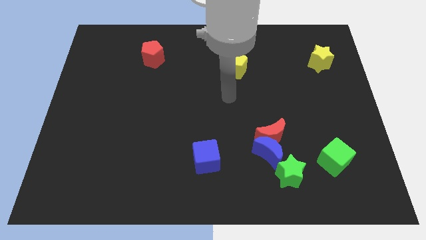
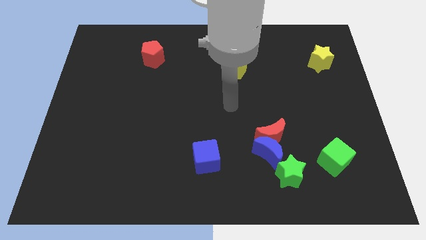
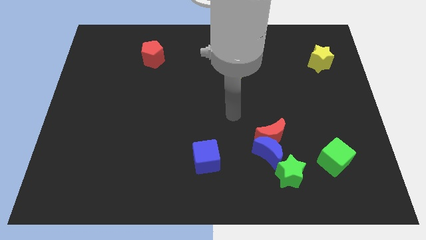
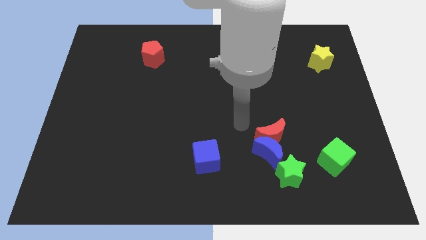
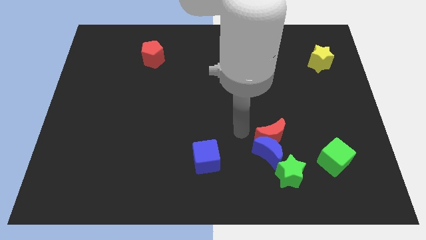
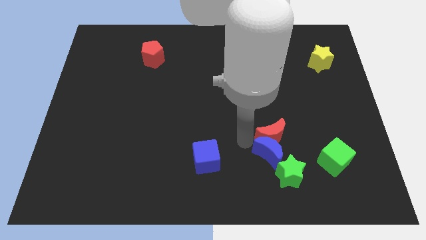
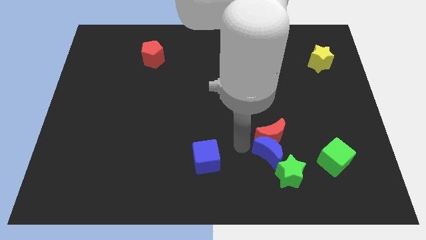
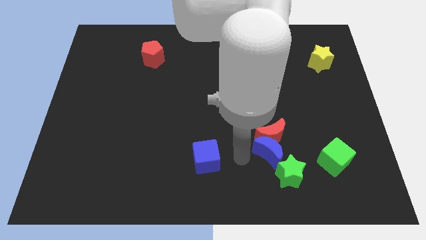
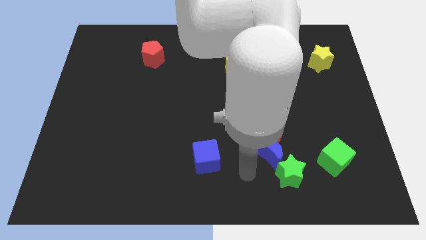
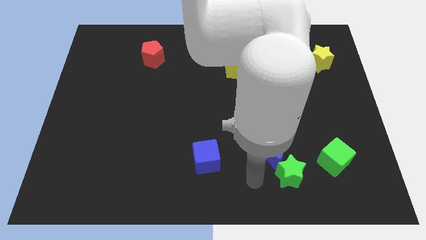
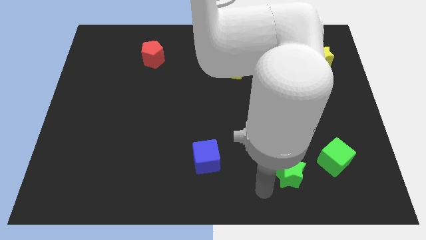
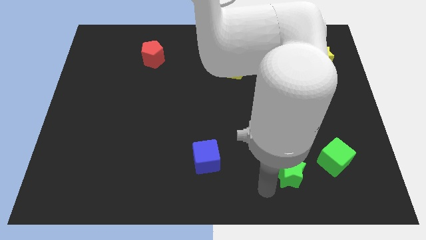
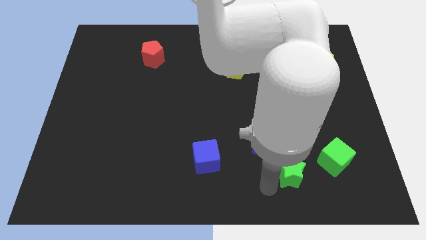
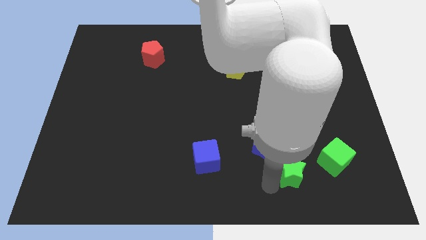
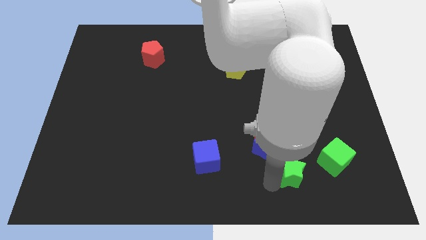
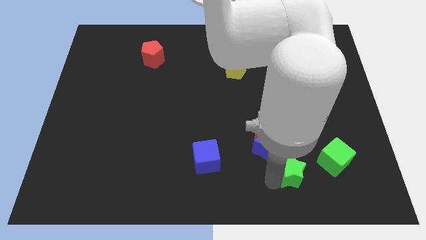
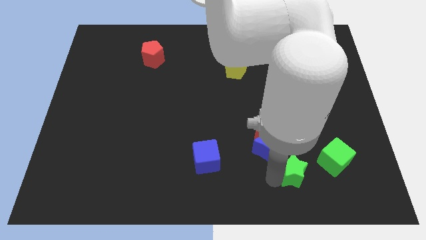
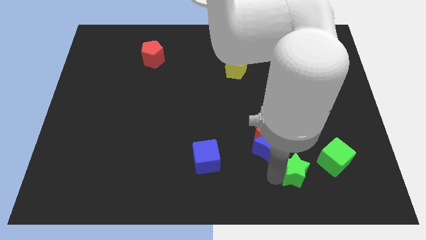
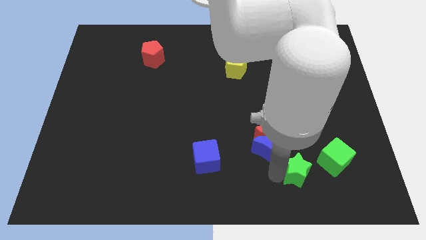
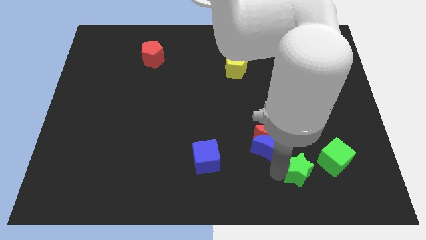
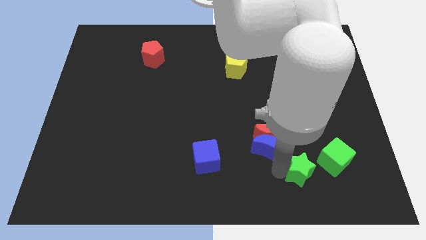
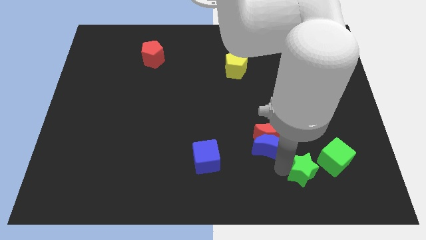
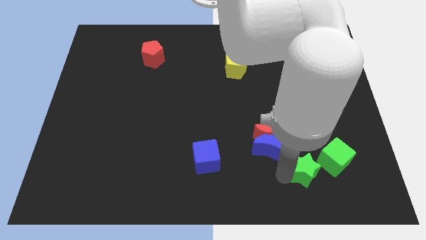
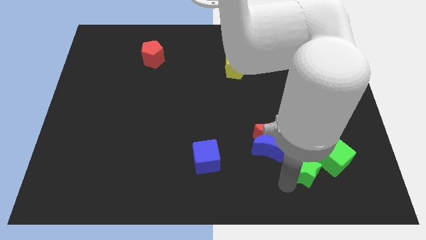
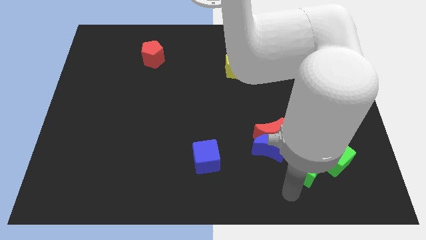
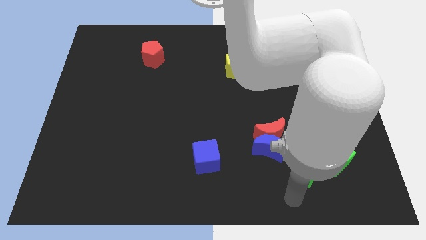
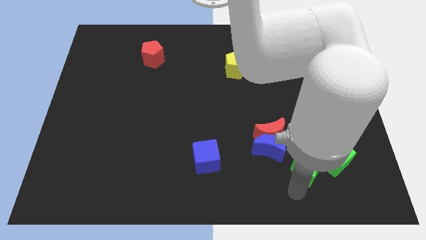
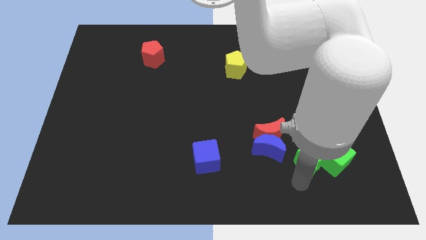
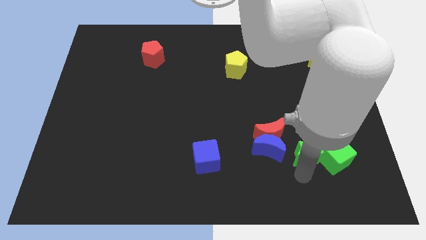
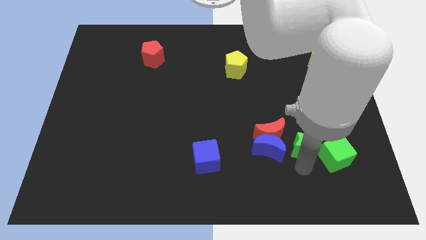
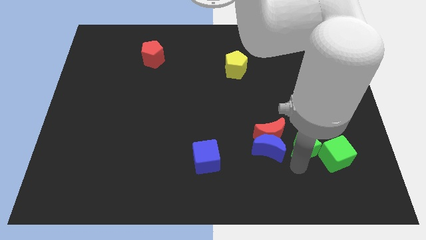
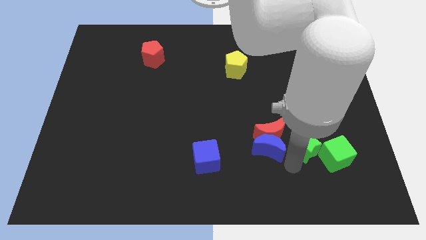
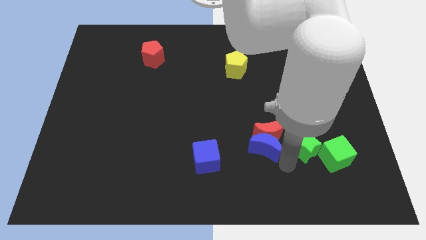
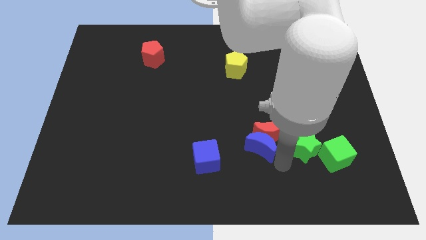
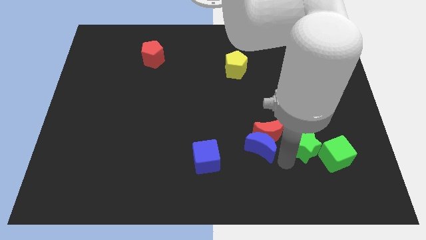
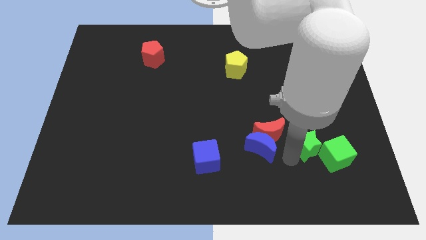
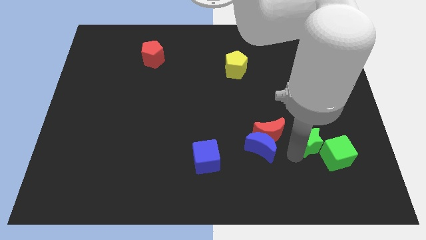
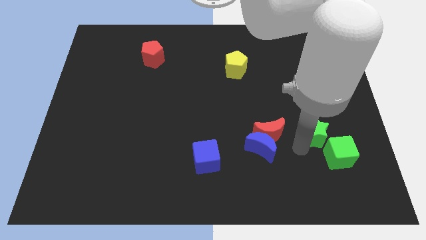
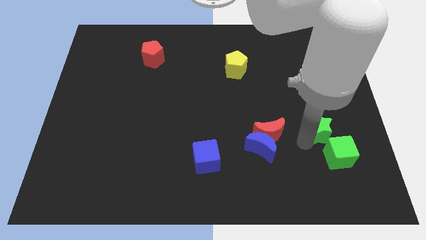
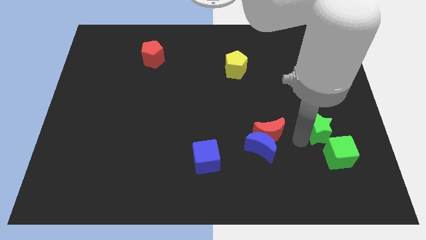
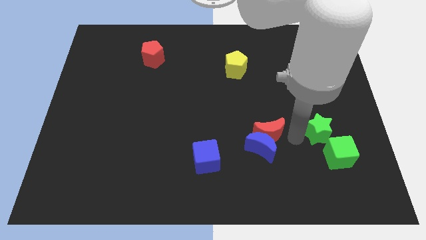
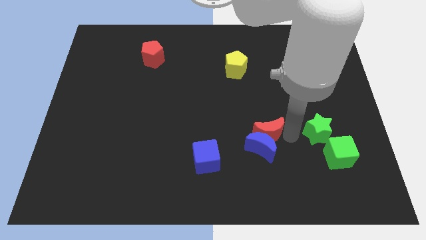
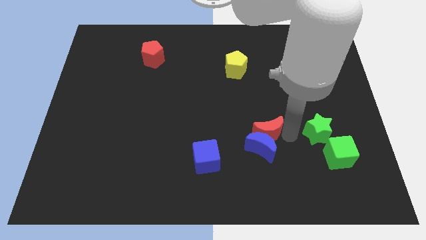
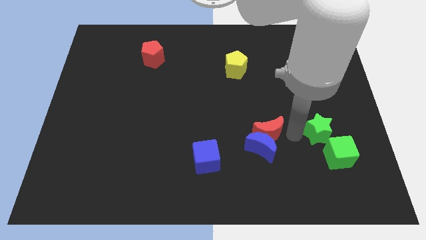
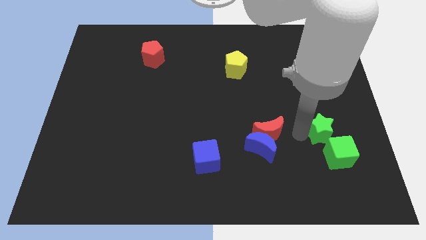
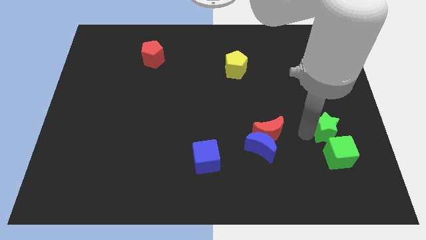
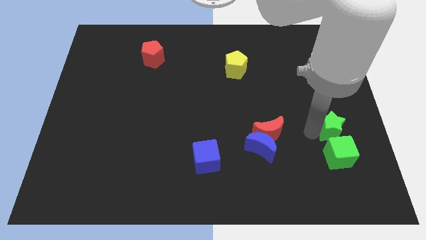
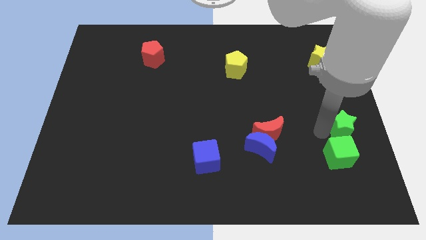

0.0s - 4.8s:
push the green star to the right side

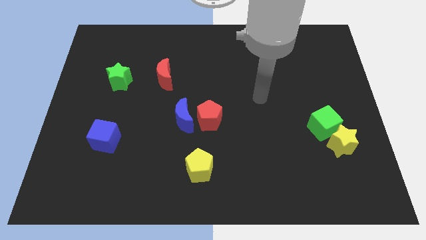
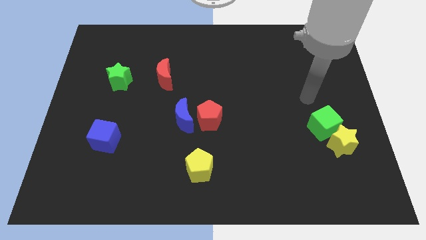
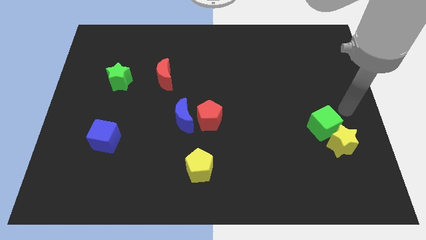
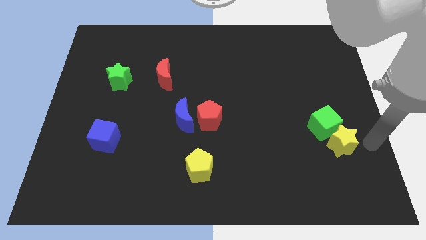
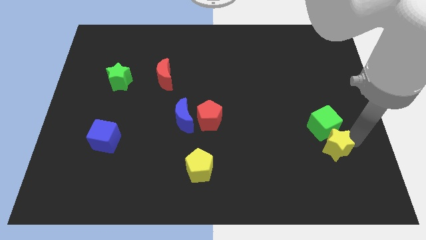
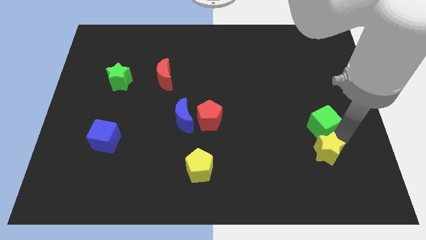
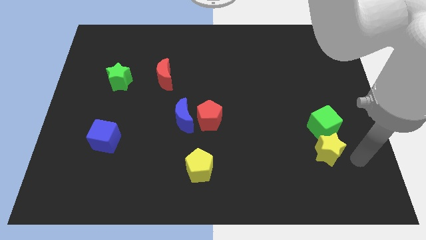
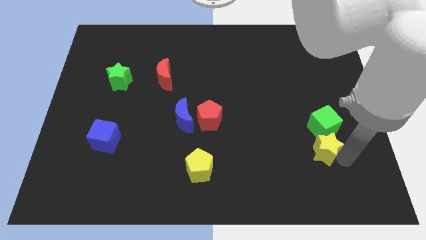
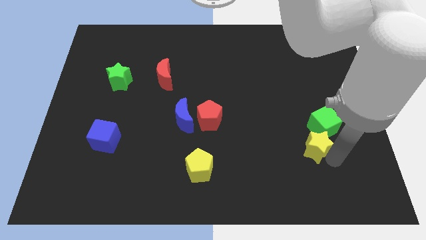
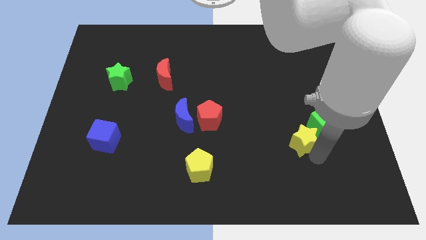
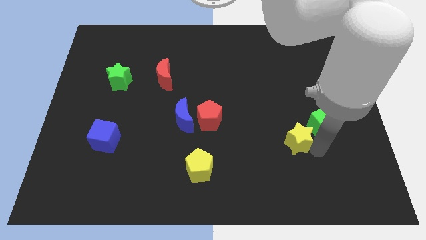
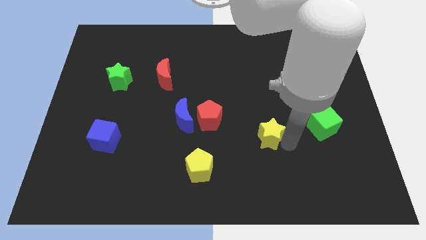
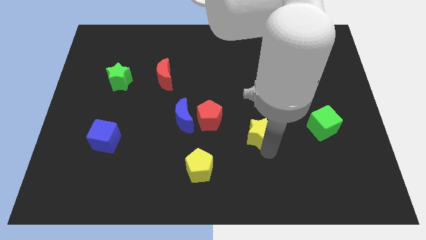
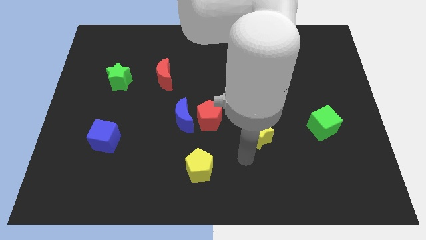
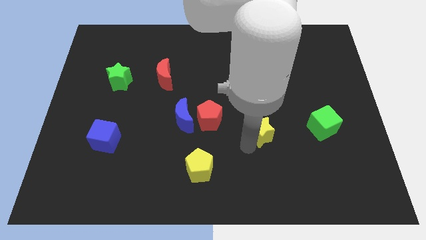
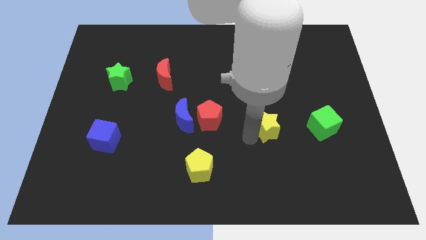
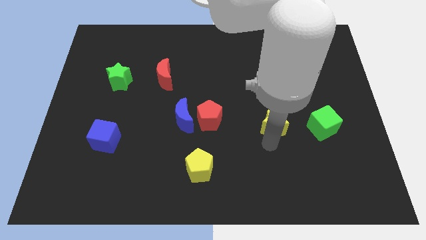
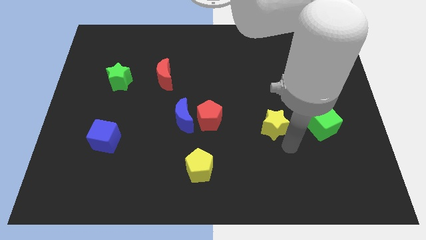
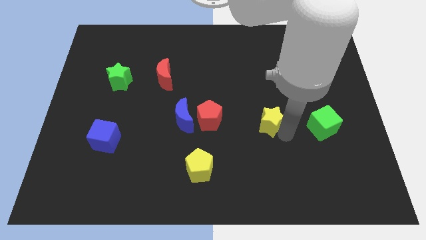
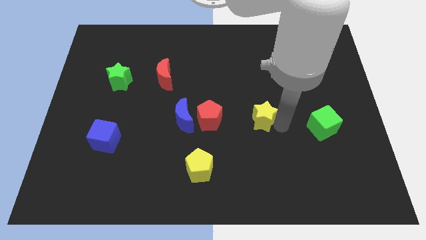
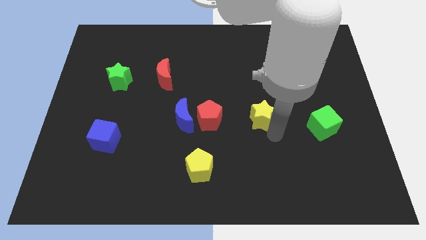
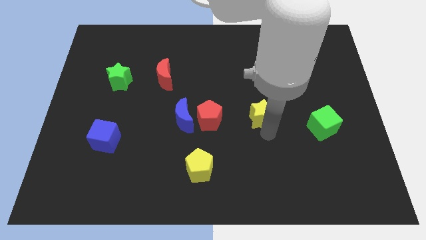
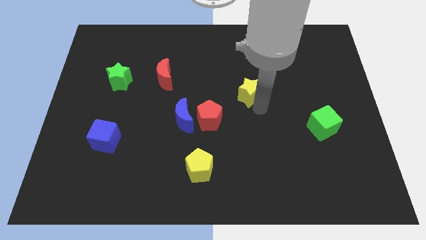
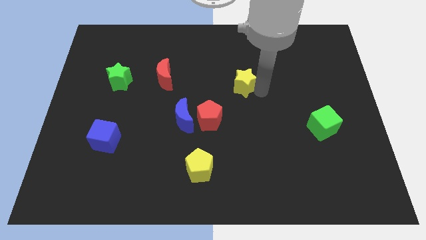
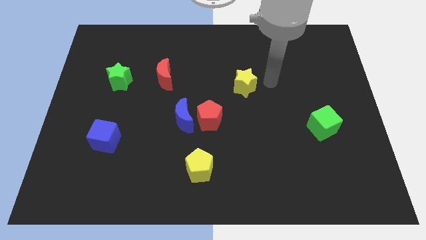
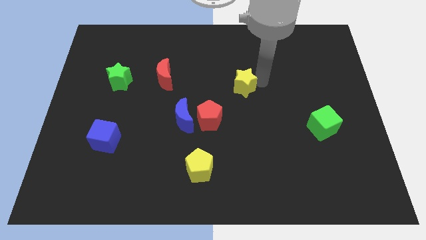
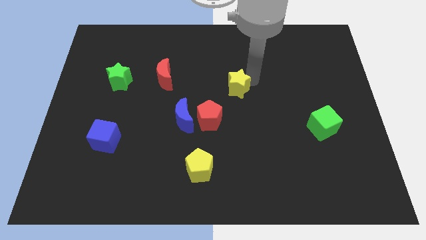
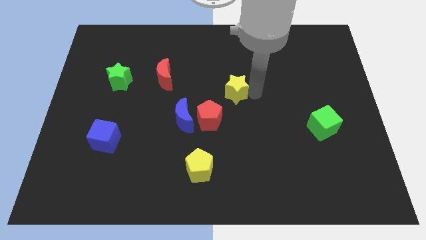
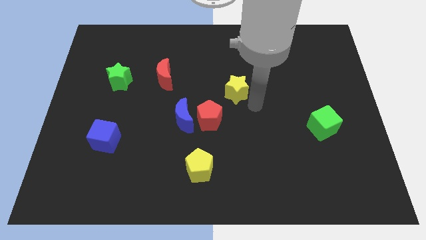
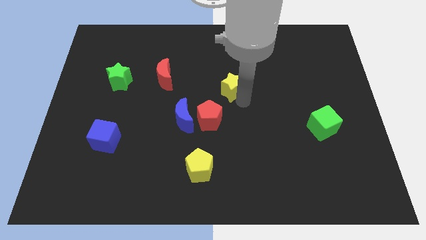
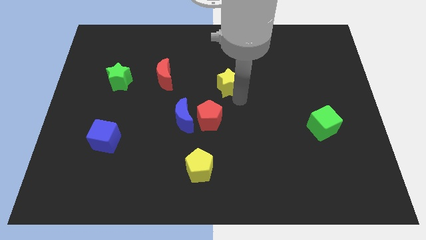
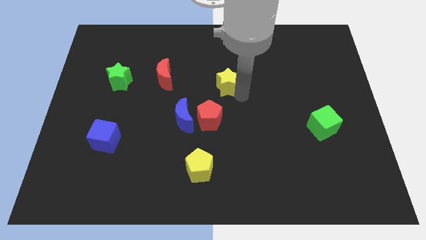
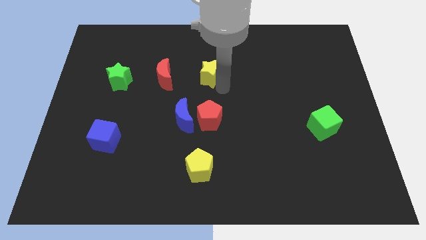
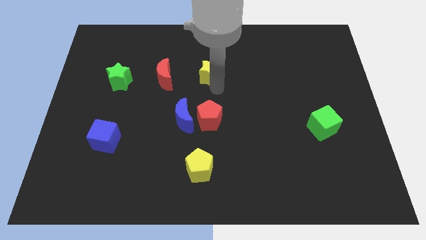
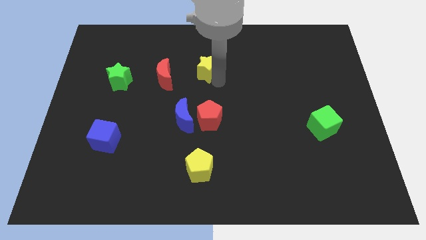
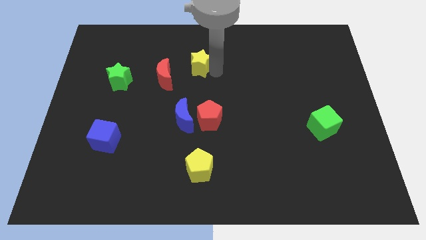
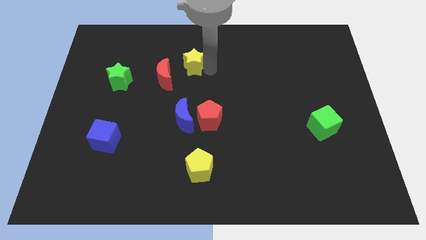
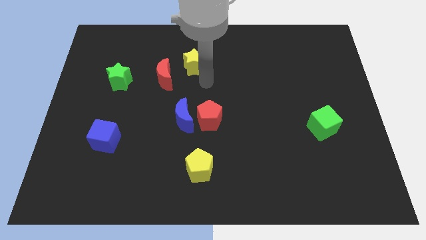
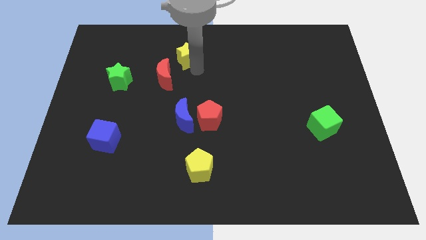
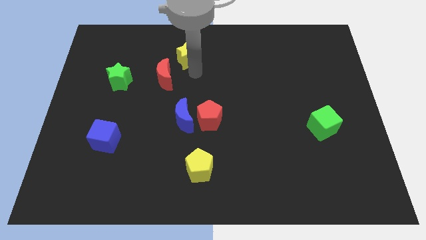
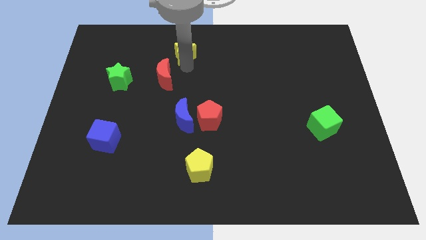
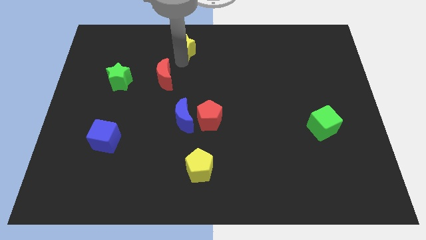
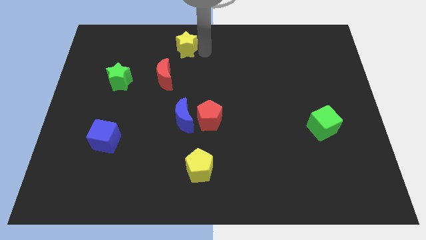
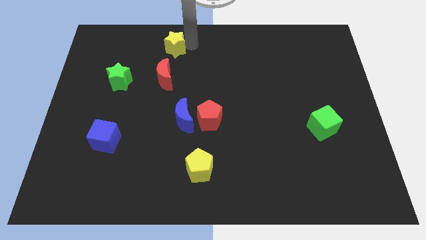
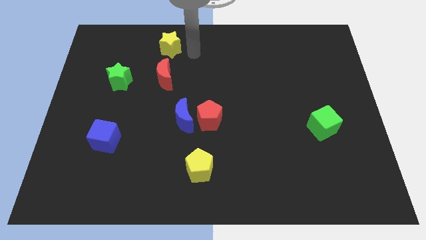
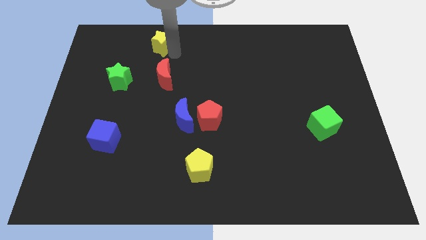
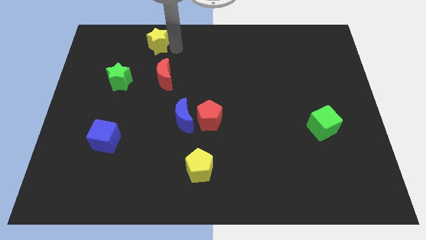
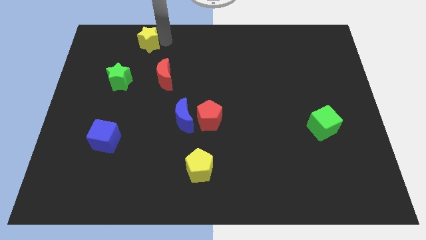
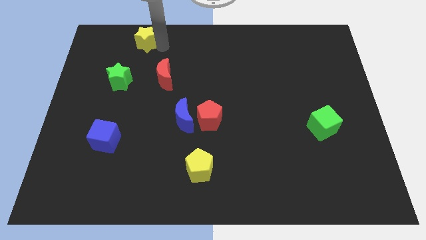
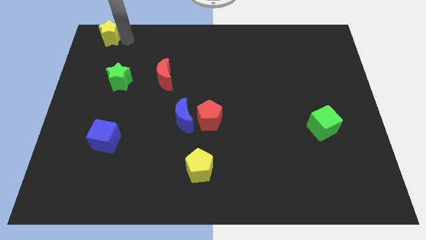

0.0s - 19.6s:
move the yellow star to the top left
